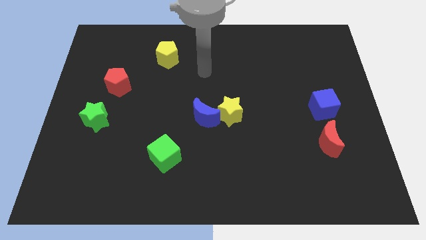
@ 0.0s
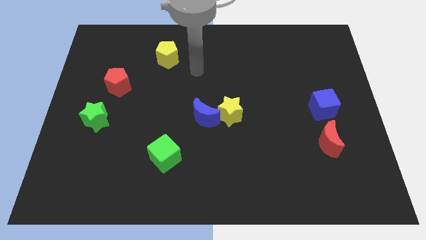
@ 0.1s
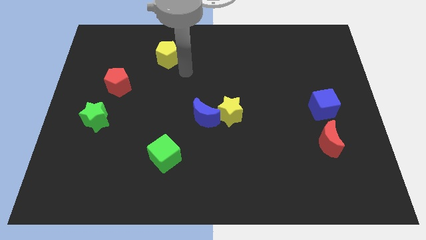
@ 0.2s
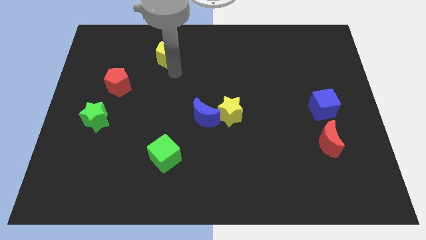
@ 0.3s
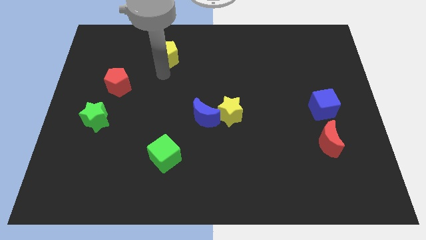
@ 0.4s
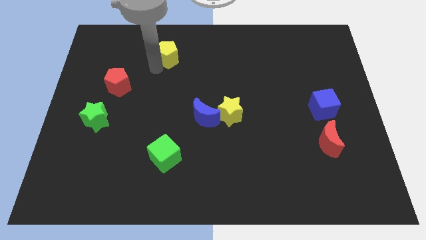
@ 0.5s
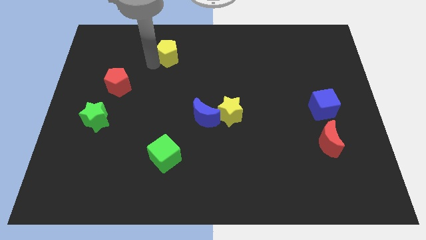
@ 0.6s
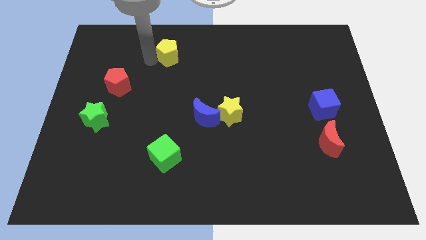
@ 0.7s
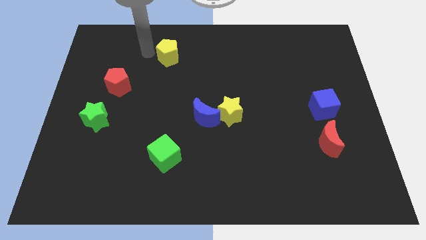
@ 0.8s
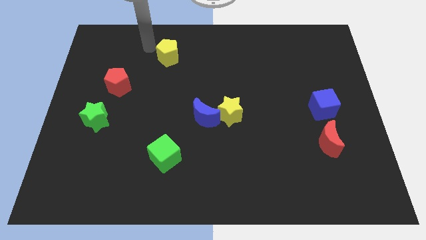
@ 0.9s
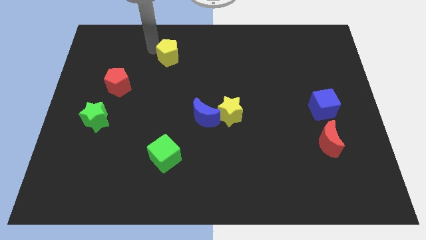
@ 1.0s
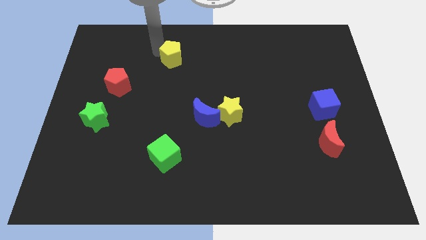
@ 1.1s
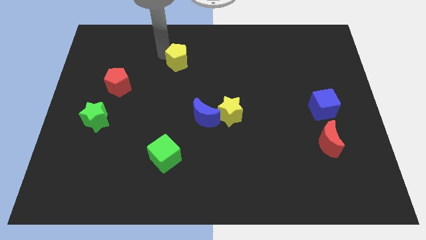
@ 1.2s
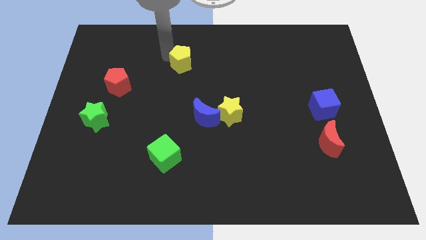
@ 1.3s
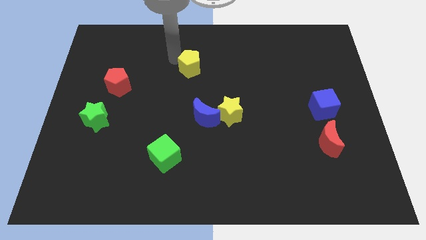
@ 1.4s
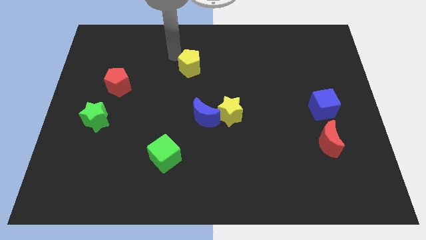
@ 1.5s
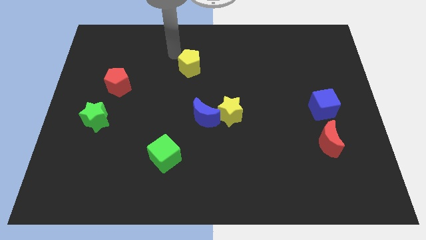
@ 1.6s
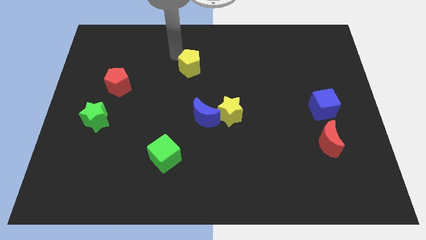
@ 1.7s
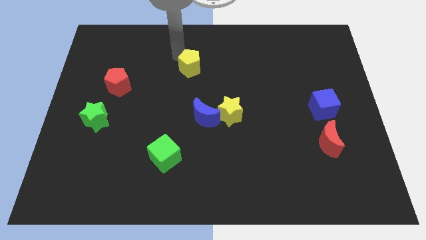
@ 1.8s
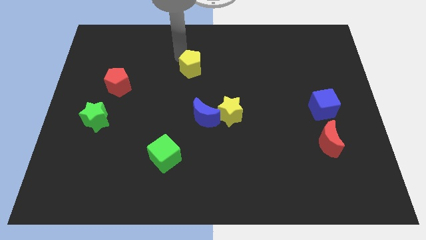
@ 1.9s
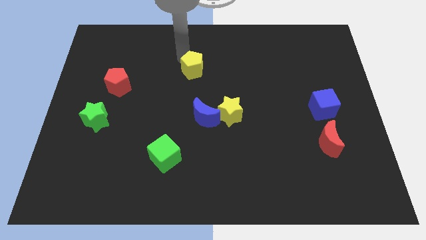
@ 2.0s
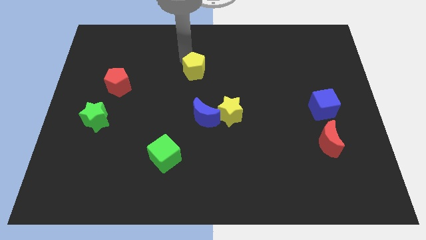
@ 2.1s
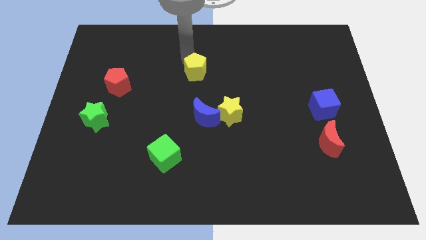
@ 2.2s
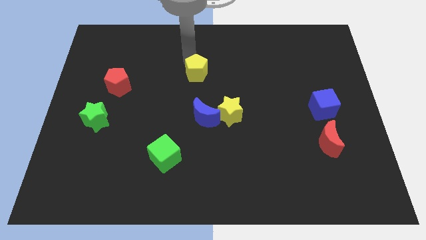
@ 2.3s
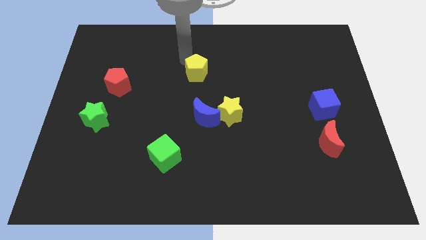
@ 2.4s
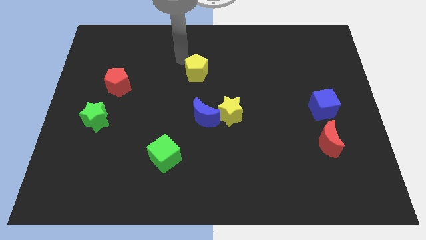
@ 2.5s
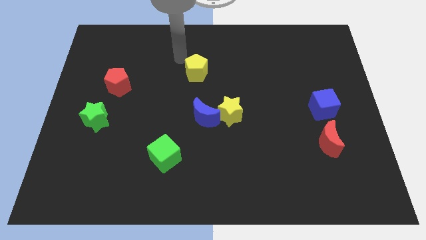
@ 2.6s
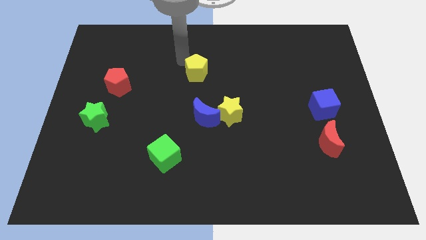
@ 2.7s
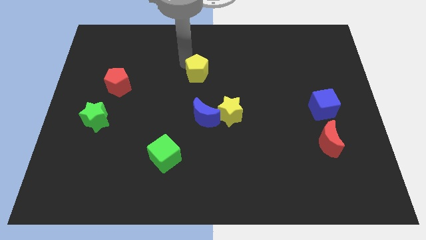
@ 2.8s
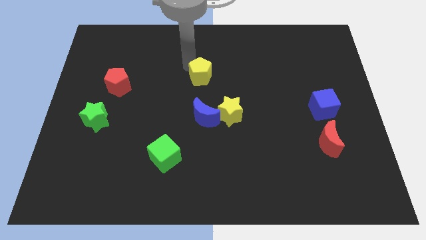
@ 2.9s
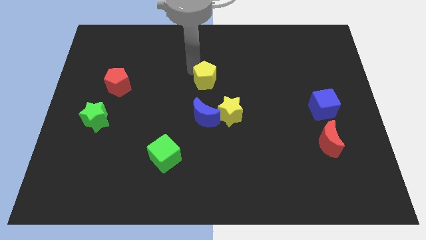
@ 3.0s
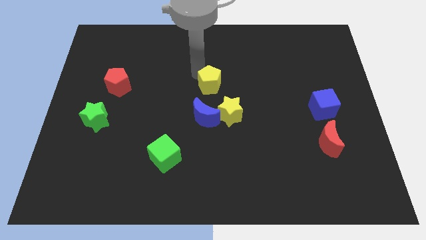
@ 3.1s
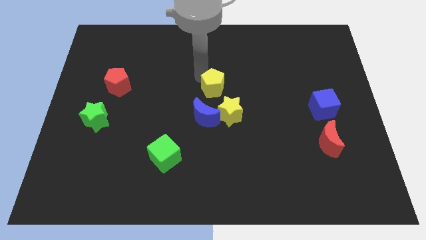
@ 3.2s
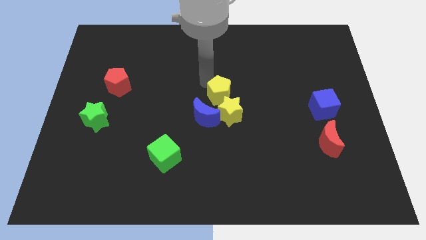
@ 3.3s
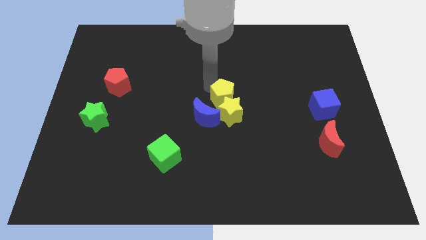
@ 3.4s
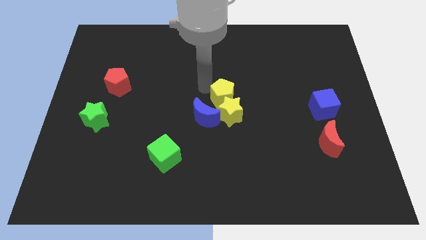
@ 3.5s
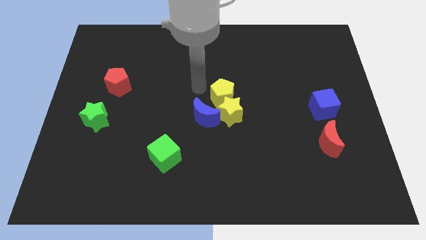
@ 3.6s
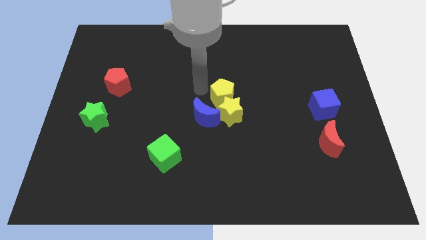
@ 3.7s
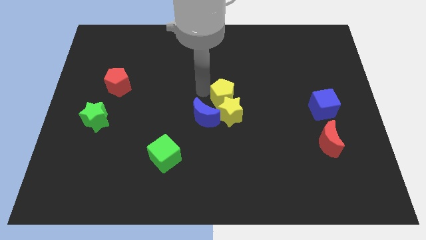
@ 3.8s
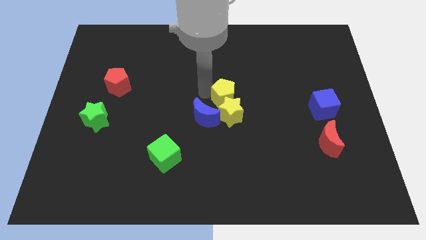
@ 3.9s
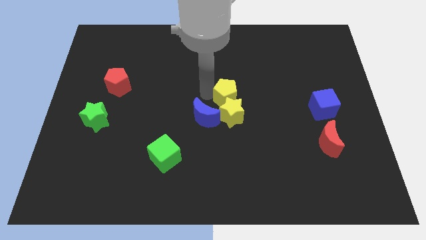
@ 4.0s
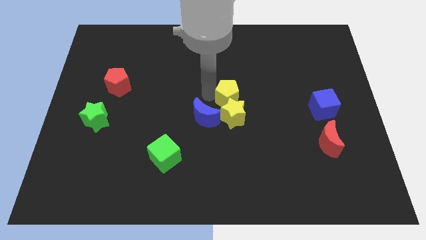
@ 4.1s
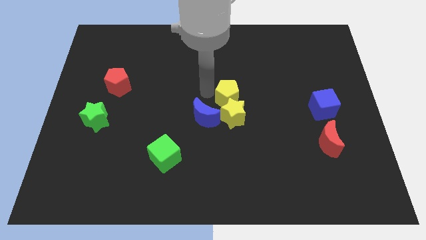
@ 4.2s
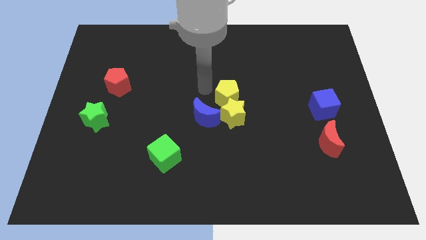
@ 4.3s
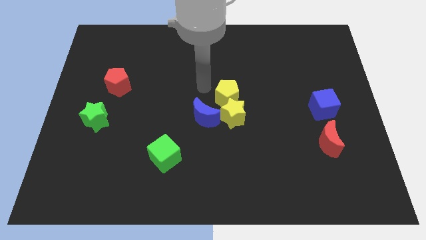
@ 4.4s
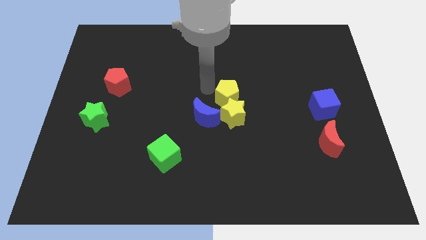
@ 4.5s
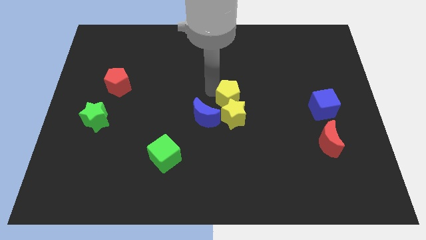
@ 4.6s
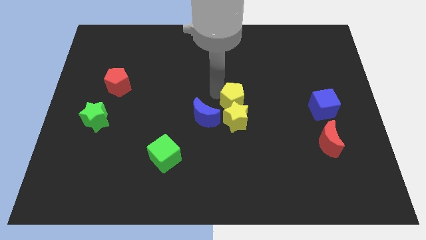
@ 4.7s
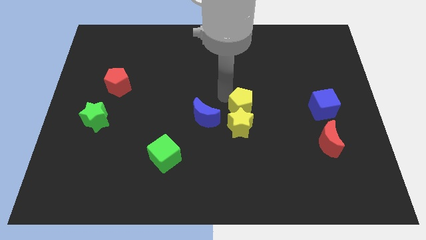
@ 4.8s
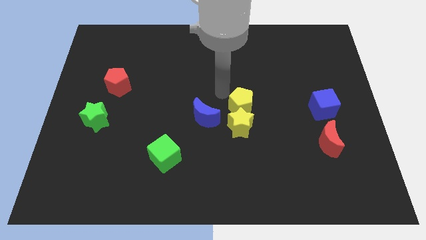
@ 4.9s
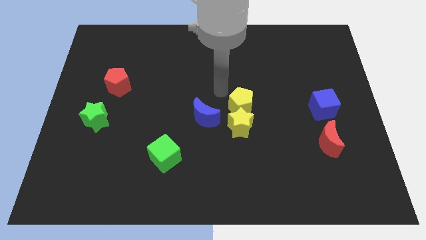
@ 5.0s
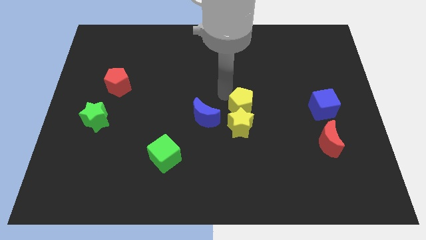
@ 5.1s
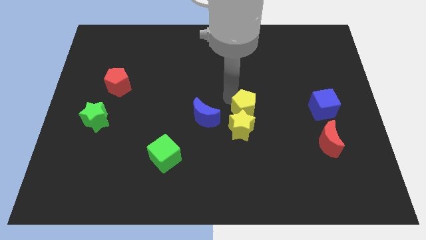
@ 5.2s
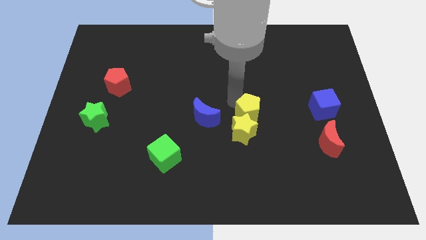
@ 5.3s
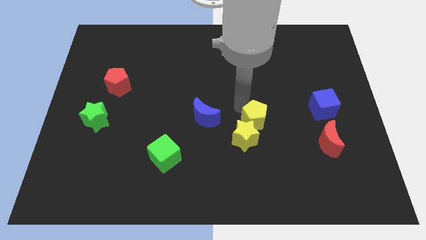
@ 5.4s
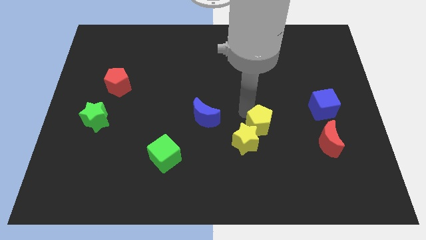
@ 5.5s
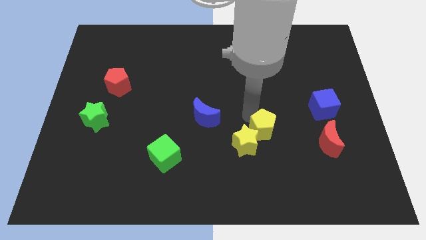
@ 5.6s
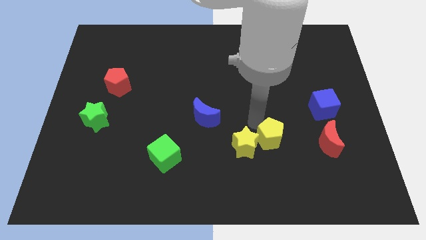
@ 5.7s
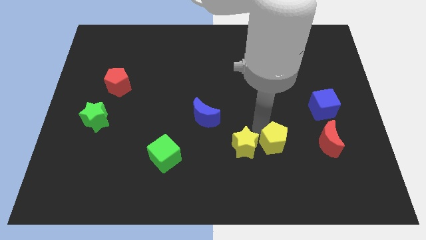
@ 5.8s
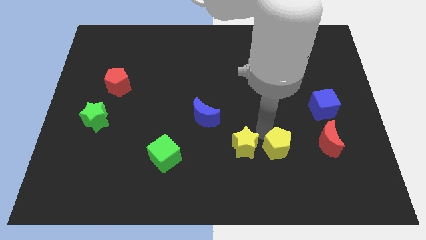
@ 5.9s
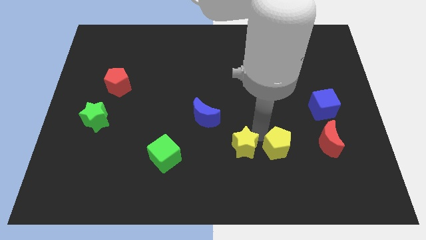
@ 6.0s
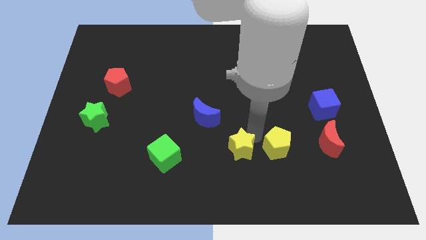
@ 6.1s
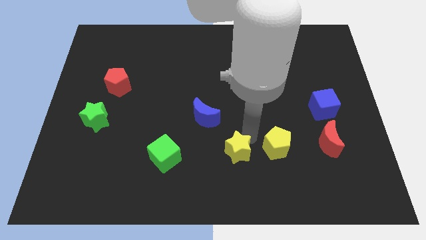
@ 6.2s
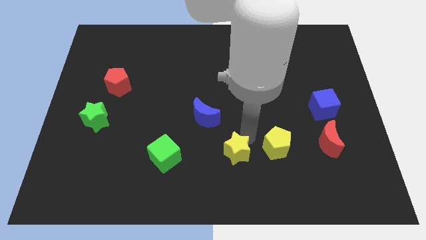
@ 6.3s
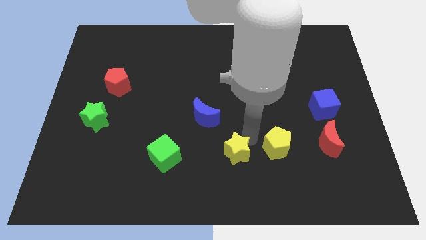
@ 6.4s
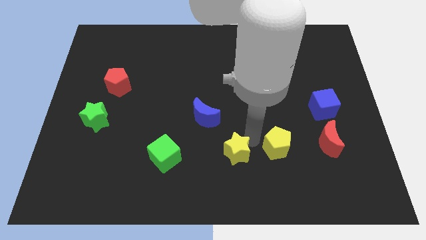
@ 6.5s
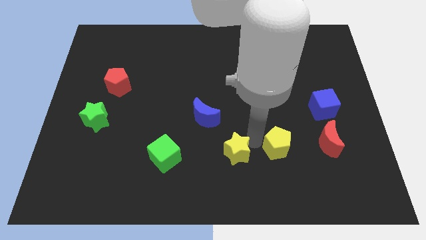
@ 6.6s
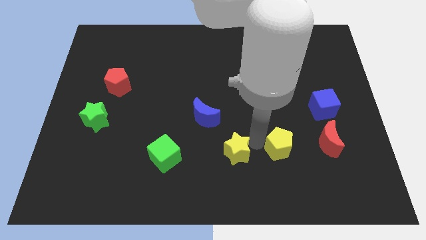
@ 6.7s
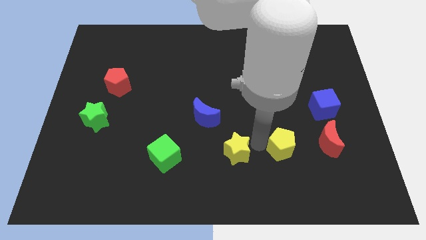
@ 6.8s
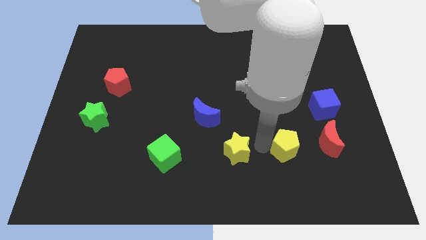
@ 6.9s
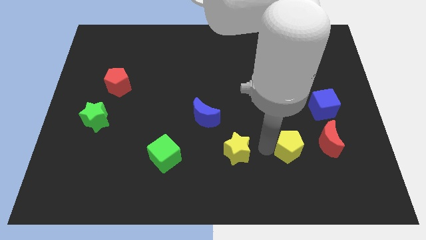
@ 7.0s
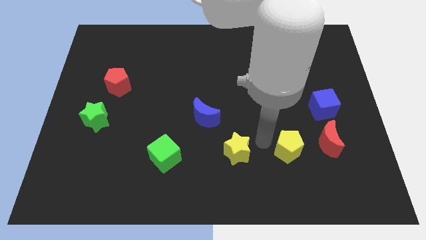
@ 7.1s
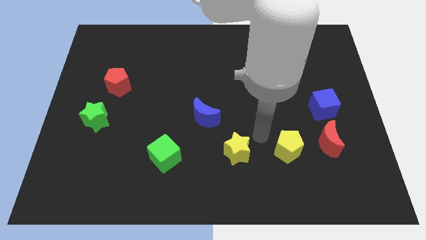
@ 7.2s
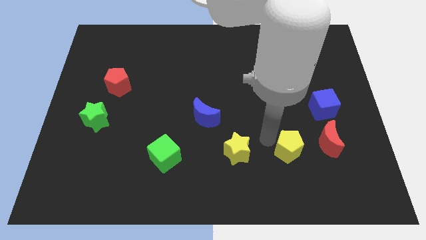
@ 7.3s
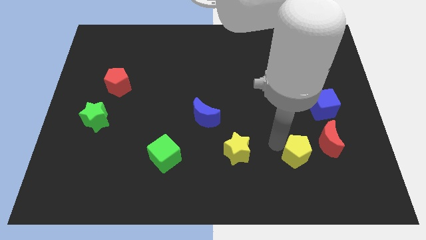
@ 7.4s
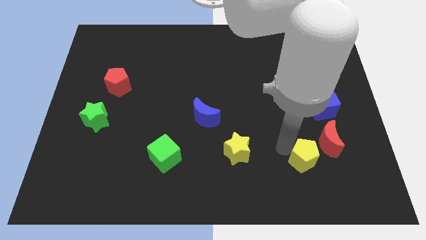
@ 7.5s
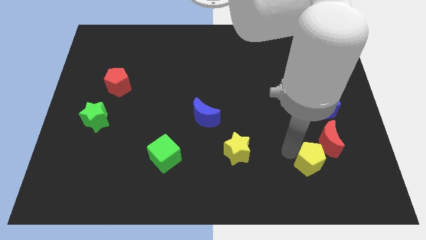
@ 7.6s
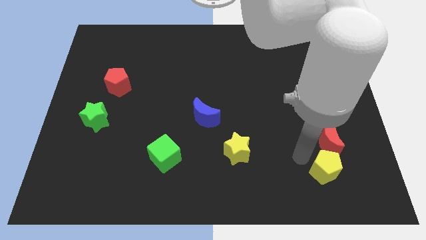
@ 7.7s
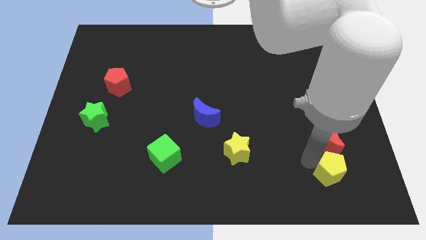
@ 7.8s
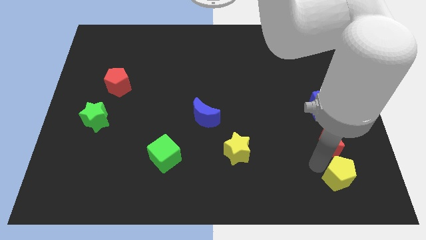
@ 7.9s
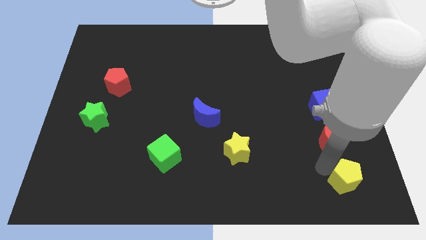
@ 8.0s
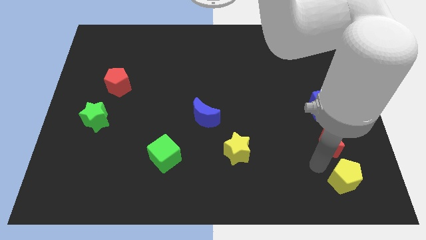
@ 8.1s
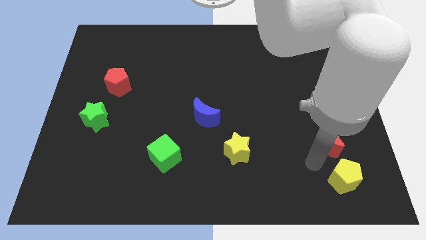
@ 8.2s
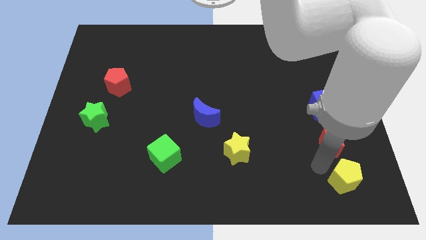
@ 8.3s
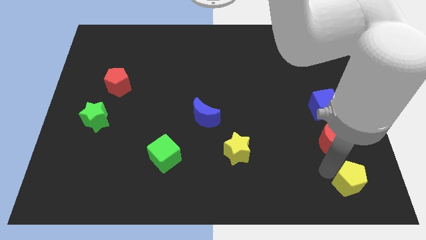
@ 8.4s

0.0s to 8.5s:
push the yellow pentagon to the bottom right
